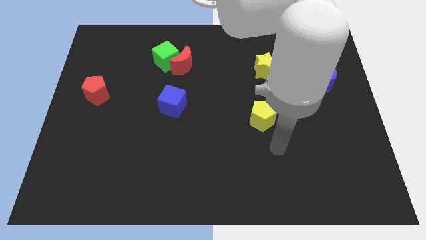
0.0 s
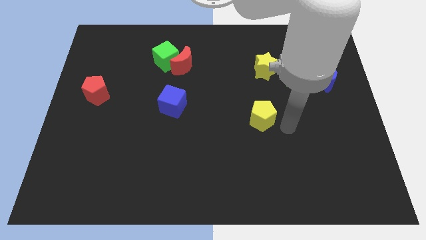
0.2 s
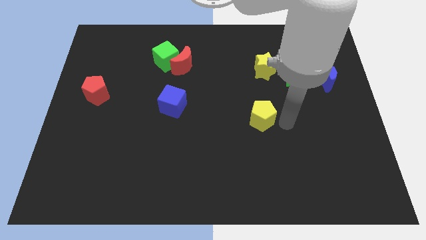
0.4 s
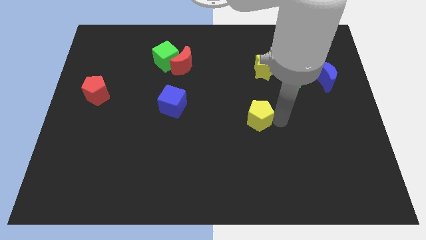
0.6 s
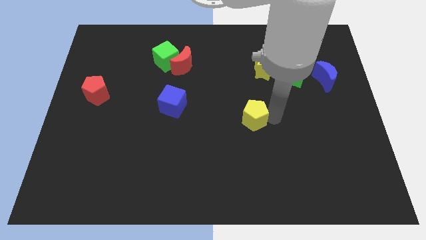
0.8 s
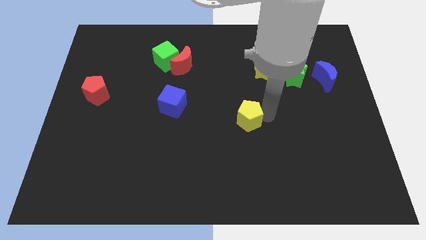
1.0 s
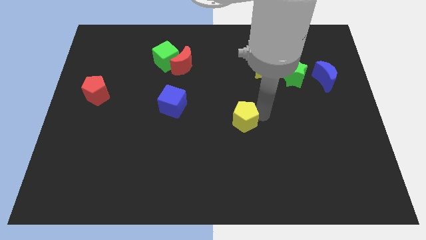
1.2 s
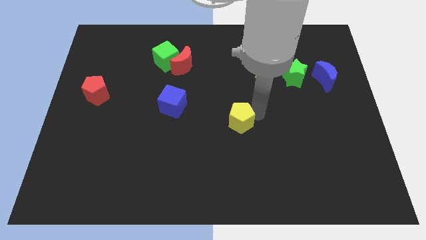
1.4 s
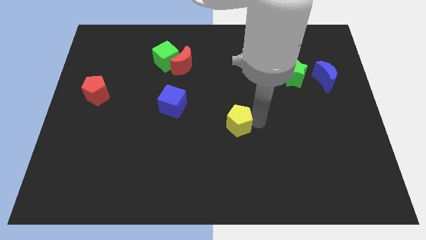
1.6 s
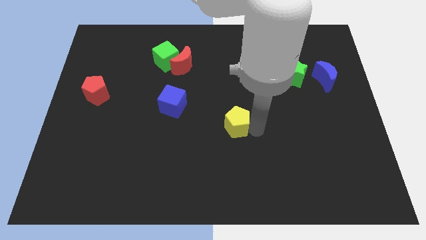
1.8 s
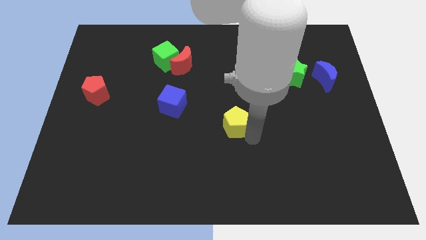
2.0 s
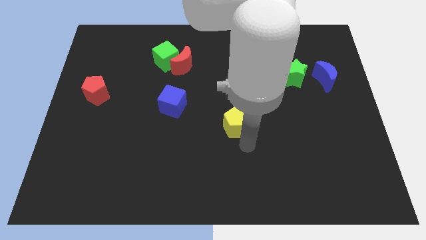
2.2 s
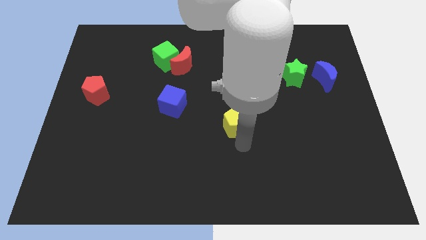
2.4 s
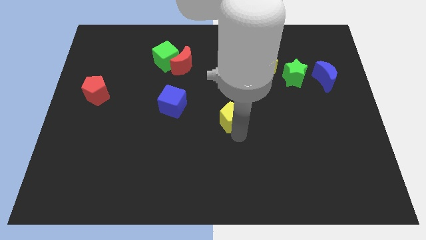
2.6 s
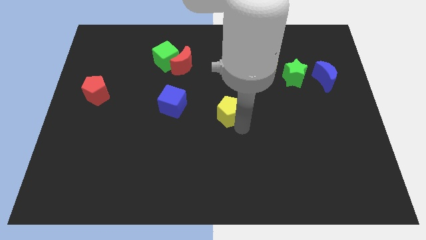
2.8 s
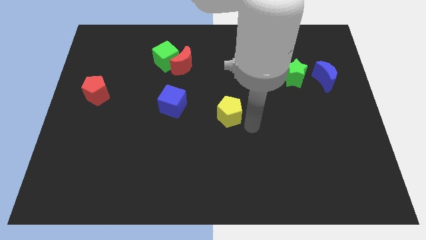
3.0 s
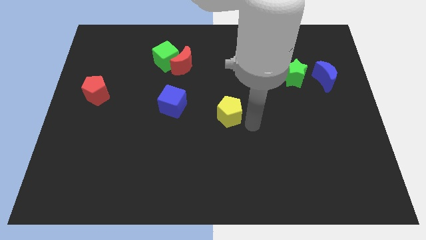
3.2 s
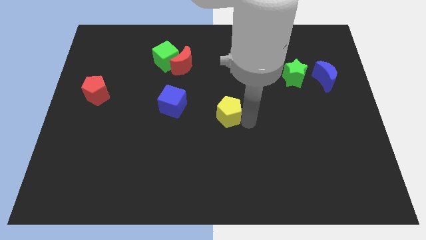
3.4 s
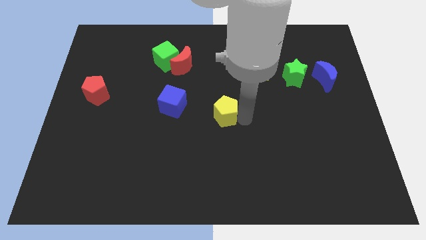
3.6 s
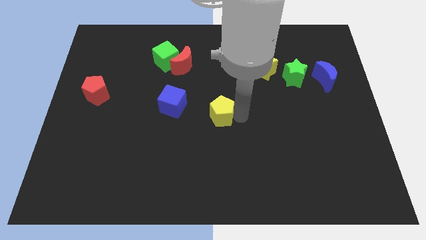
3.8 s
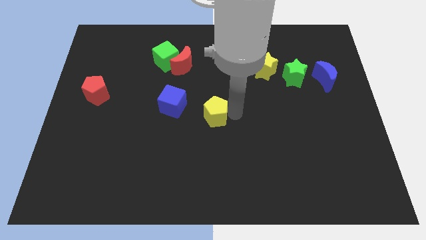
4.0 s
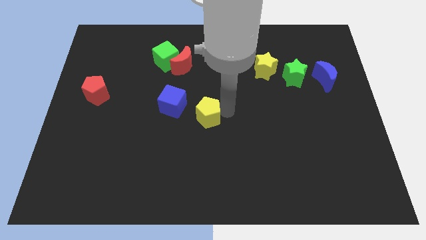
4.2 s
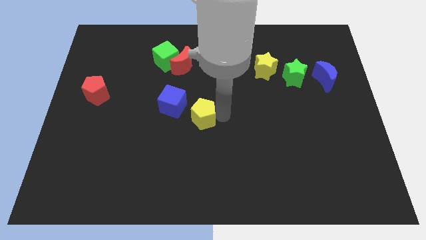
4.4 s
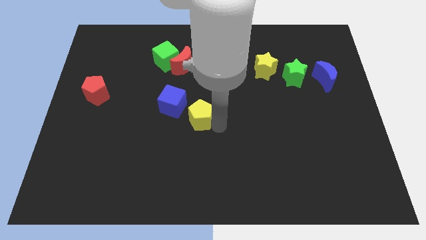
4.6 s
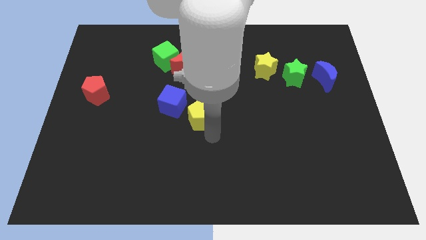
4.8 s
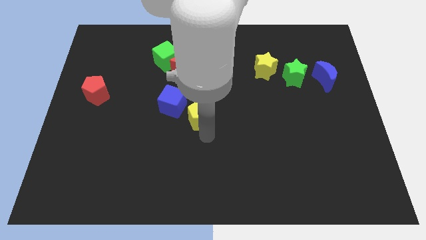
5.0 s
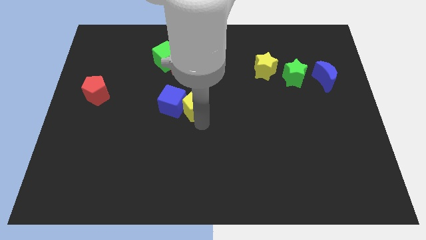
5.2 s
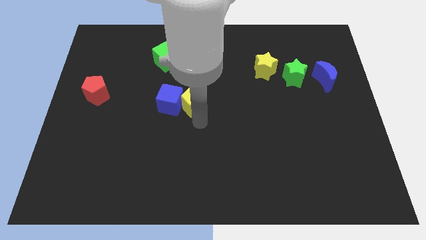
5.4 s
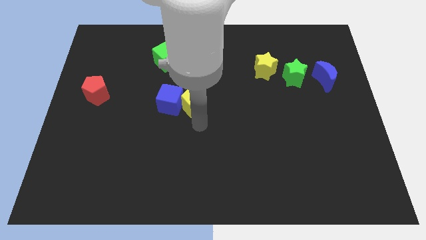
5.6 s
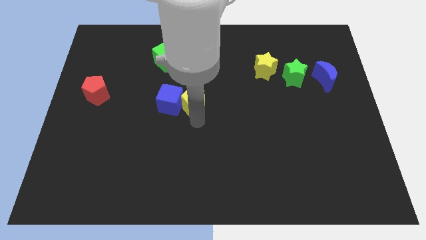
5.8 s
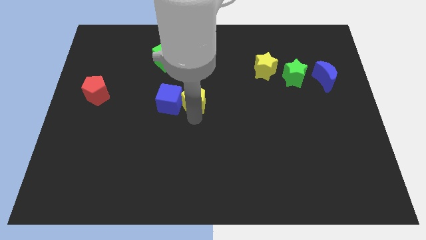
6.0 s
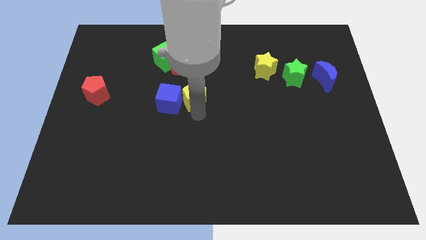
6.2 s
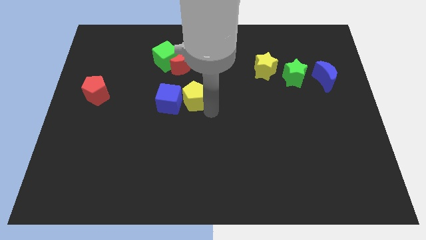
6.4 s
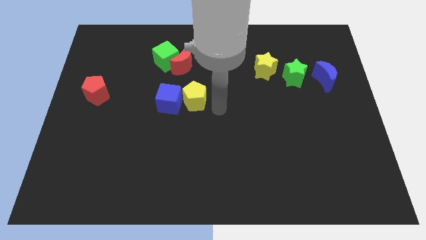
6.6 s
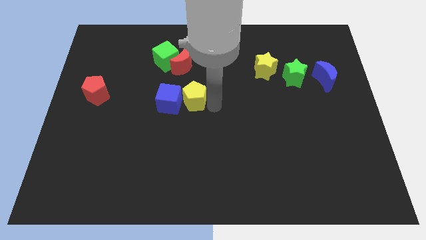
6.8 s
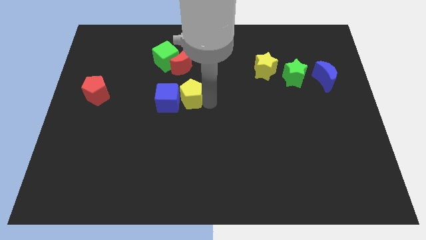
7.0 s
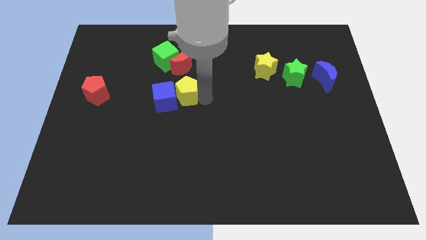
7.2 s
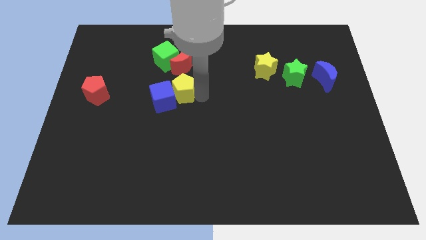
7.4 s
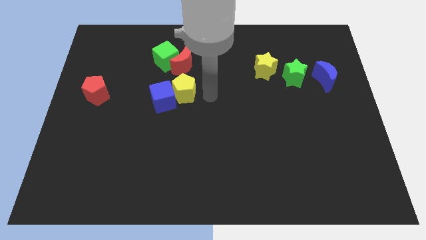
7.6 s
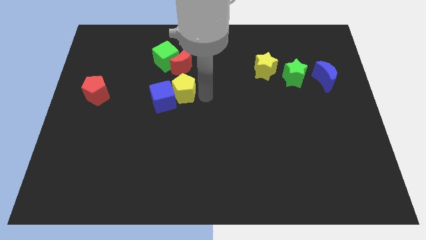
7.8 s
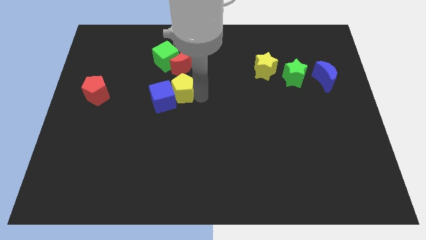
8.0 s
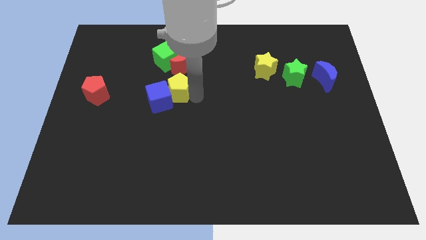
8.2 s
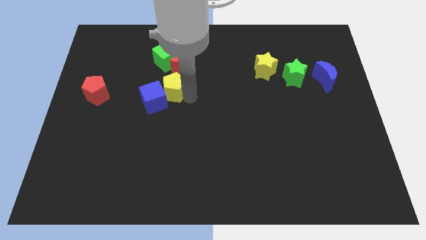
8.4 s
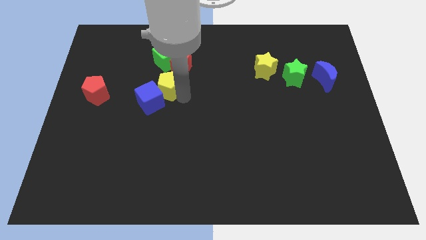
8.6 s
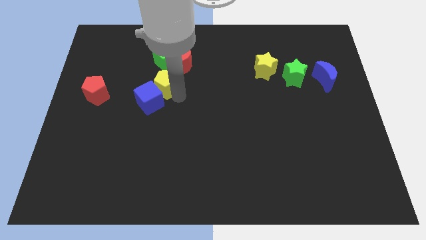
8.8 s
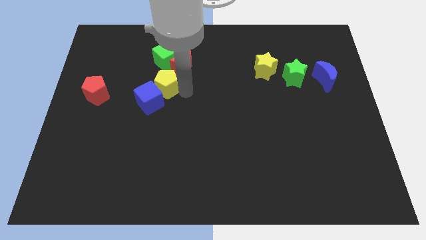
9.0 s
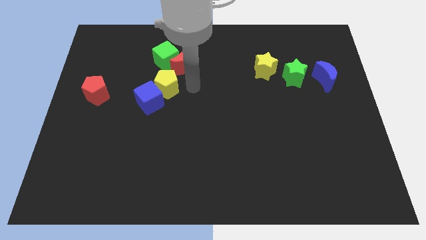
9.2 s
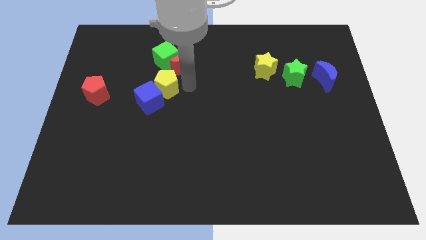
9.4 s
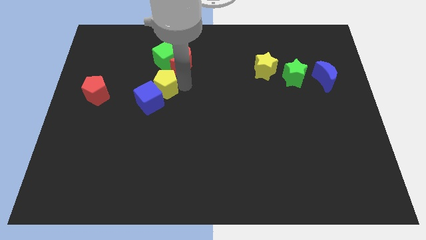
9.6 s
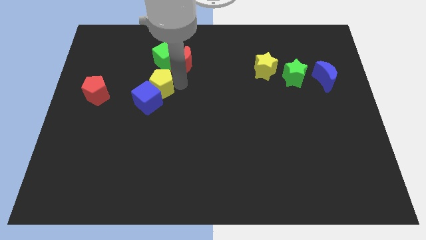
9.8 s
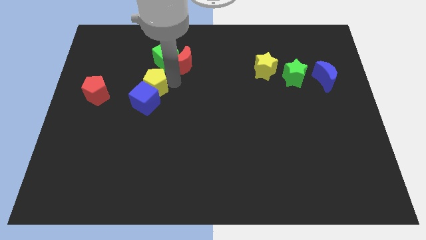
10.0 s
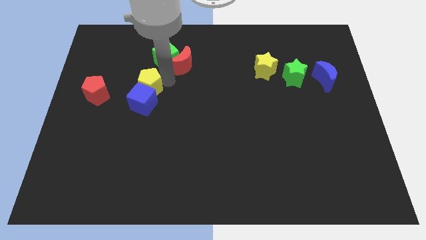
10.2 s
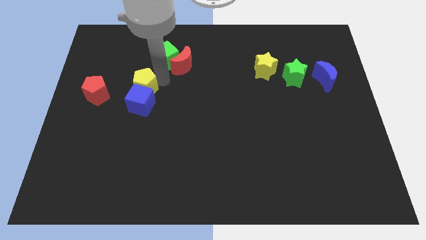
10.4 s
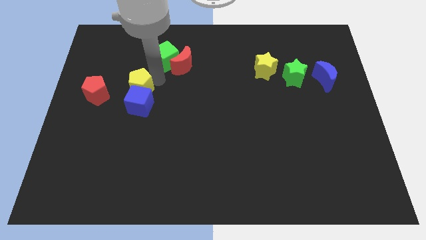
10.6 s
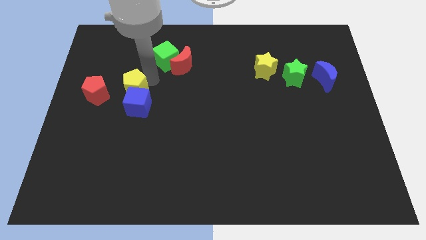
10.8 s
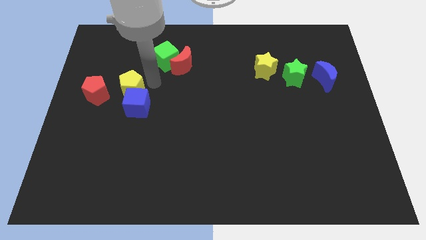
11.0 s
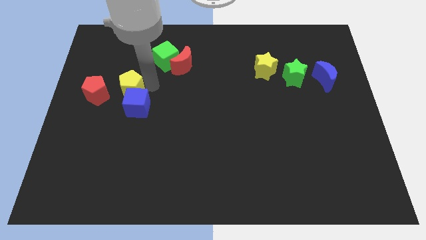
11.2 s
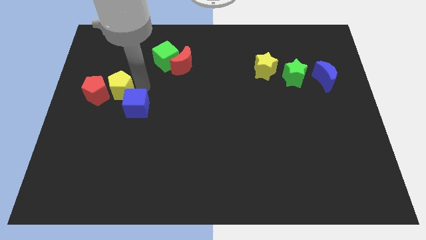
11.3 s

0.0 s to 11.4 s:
move the yellow pentagon to the red pentagon

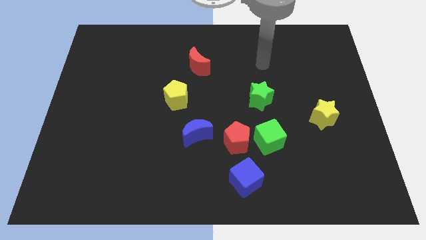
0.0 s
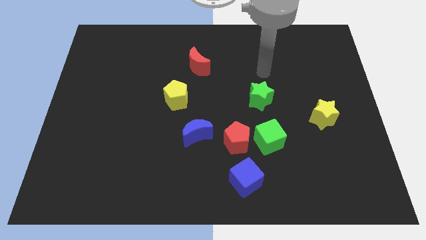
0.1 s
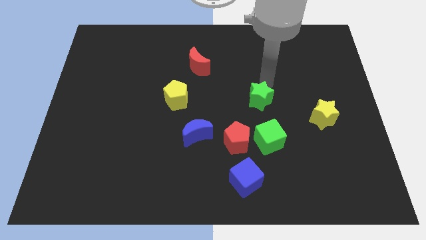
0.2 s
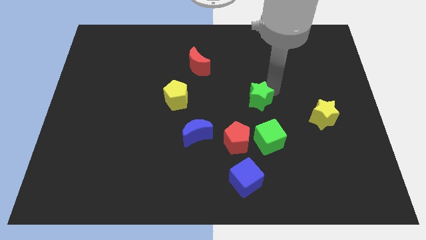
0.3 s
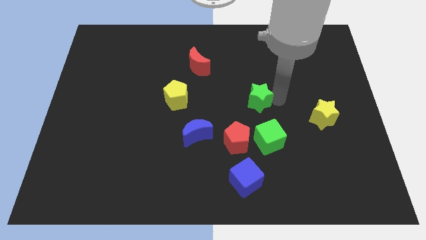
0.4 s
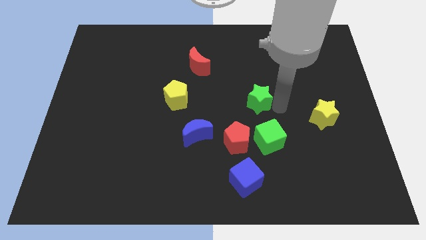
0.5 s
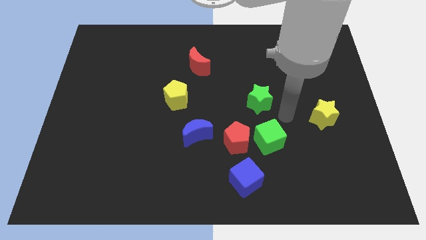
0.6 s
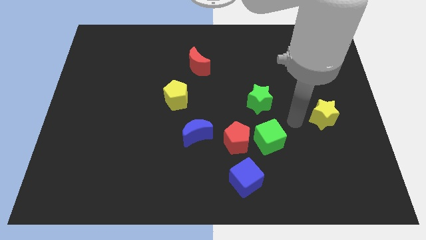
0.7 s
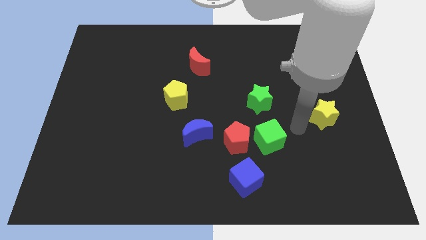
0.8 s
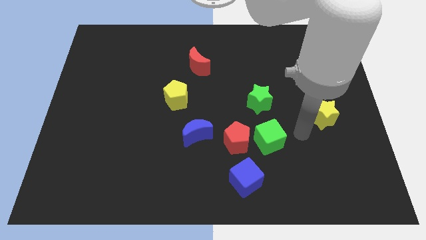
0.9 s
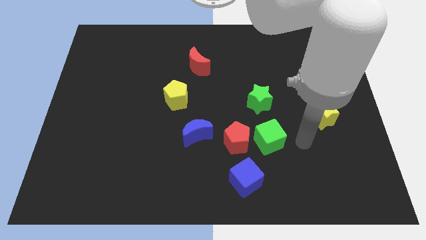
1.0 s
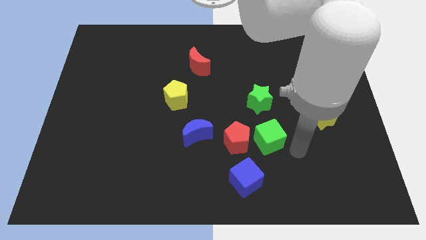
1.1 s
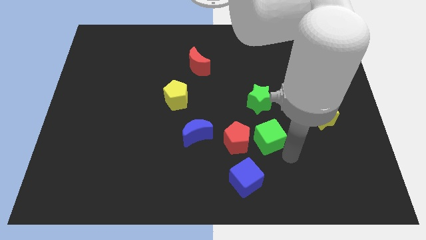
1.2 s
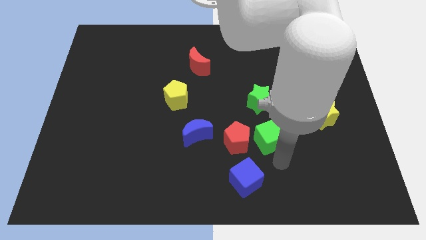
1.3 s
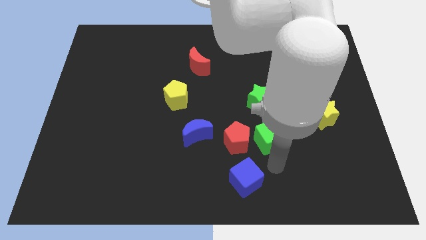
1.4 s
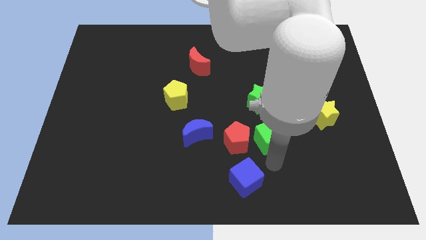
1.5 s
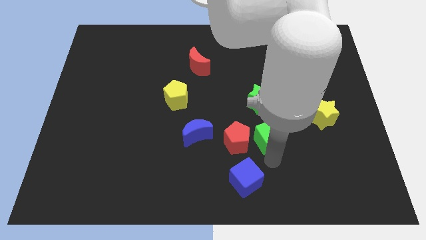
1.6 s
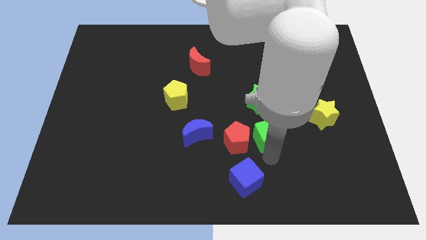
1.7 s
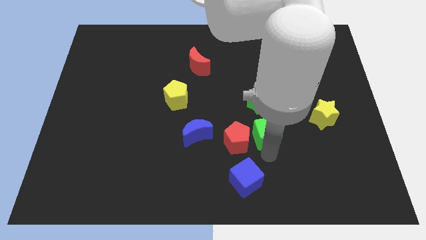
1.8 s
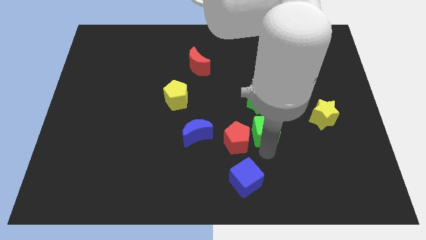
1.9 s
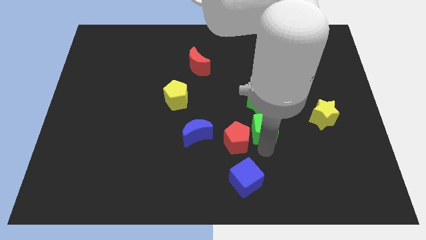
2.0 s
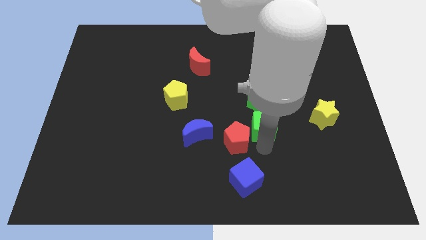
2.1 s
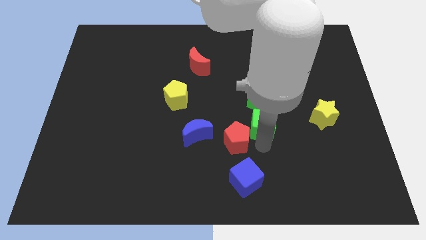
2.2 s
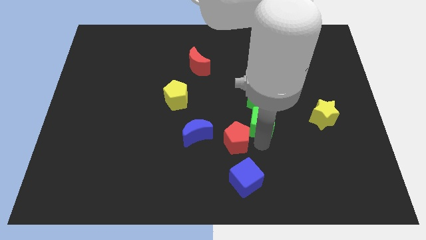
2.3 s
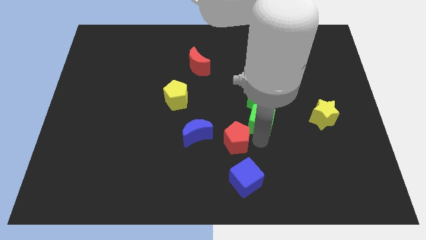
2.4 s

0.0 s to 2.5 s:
slide the green cube close to the green star
